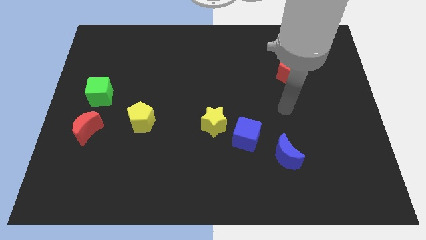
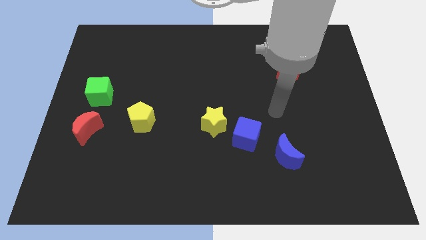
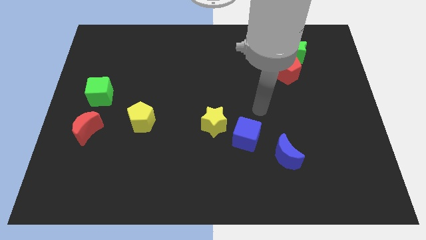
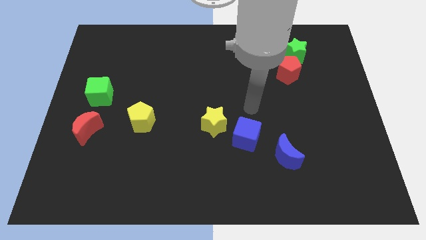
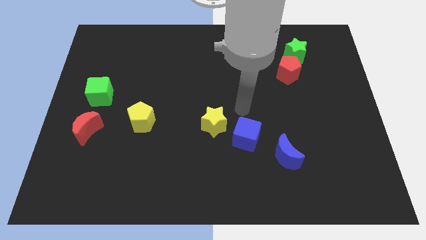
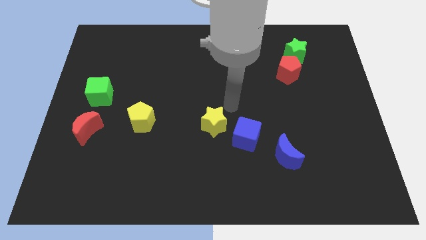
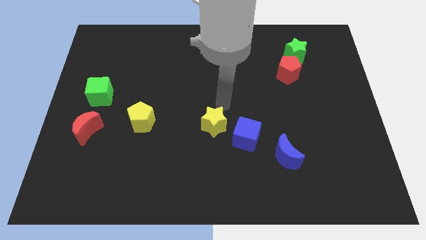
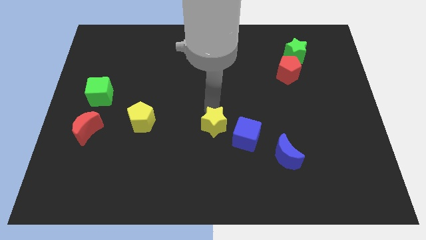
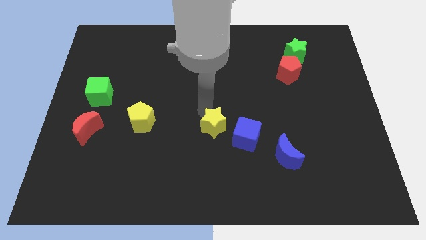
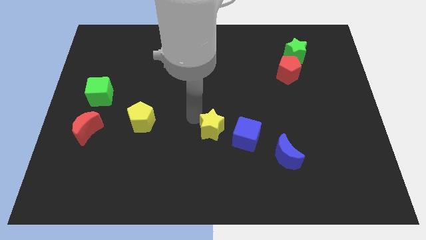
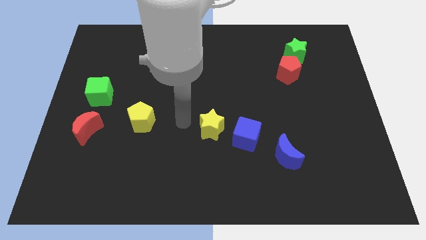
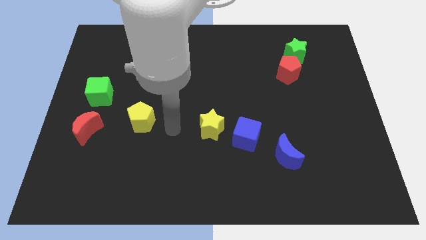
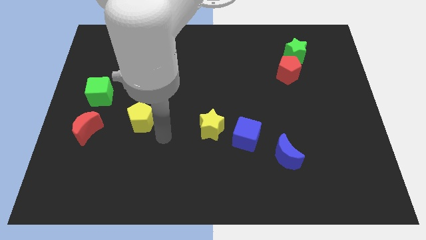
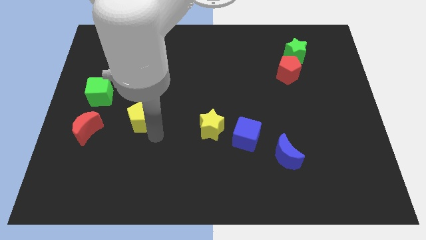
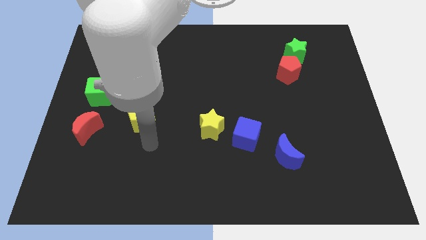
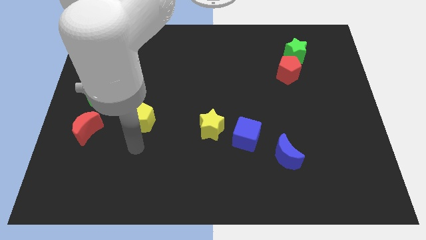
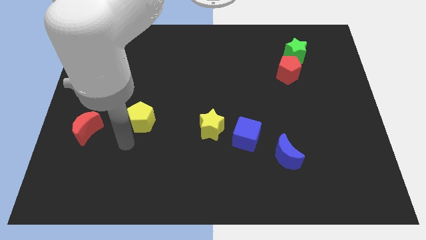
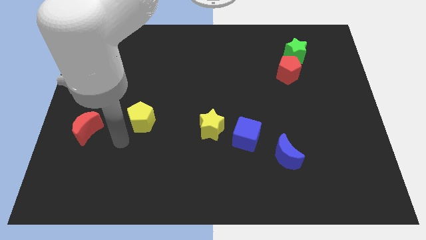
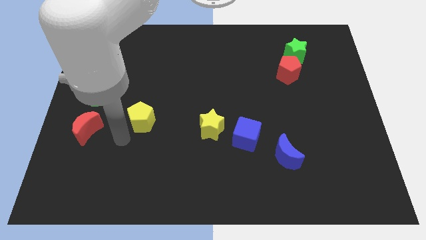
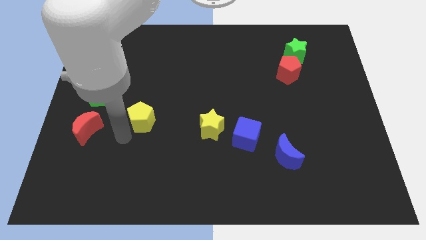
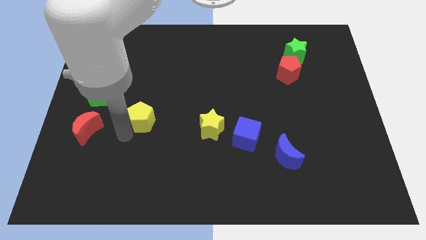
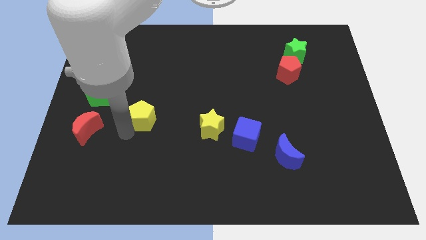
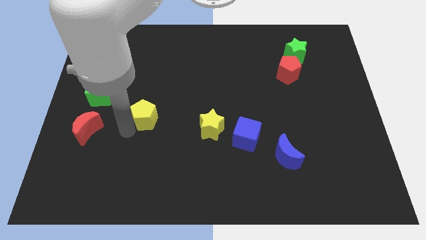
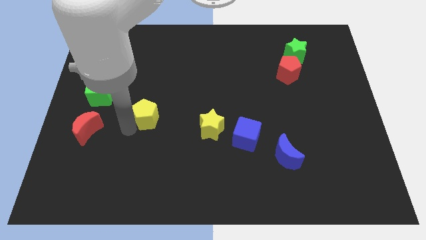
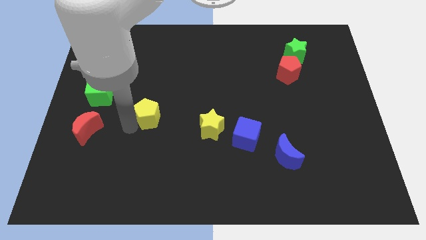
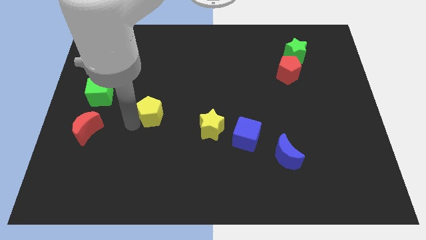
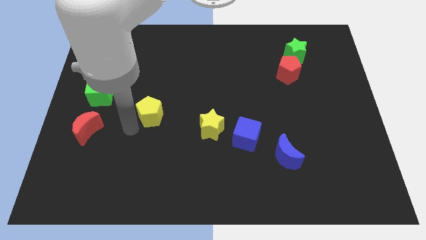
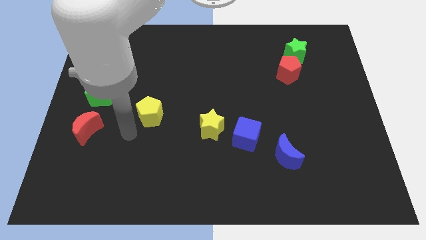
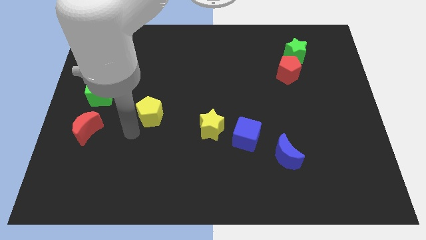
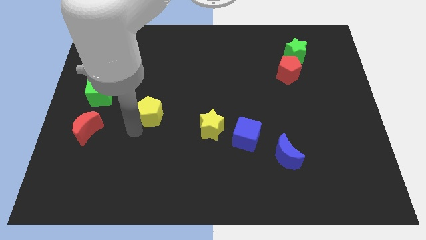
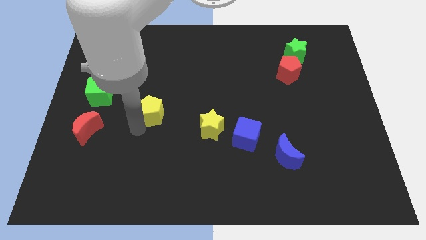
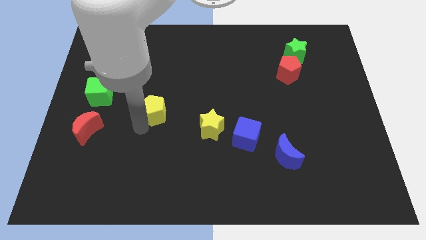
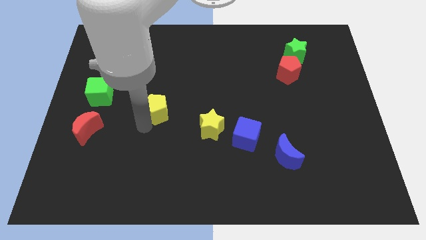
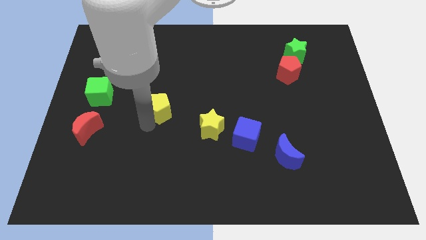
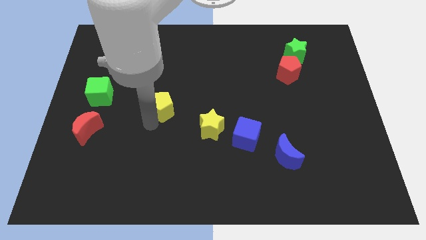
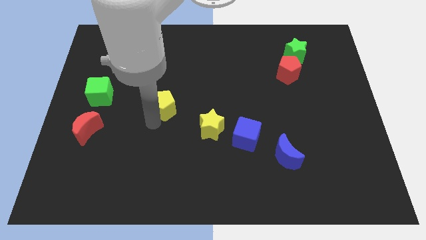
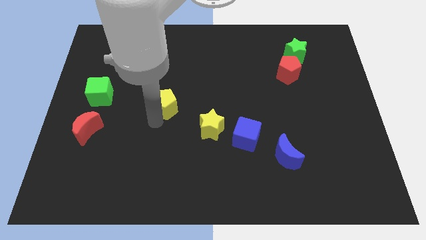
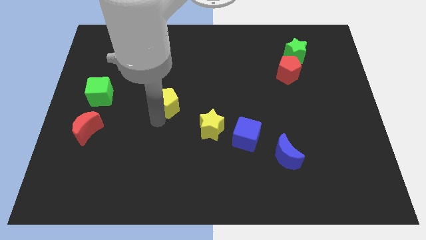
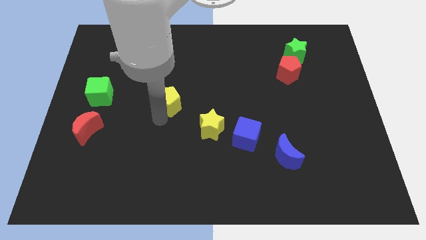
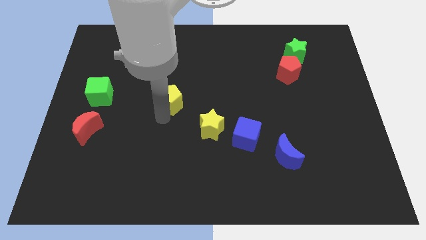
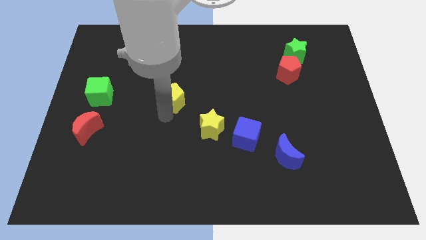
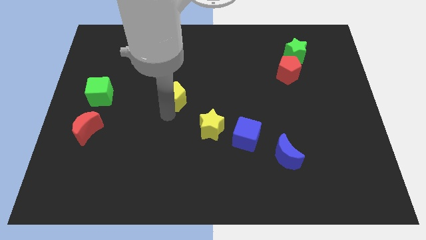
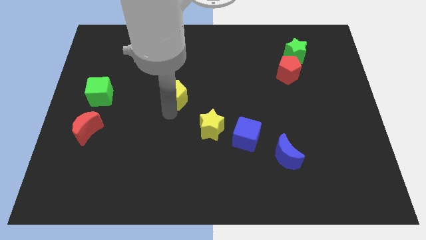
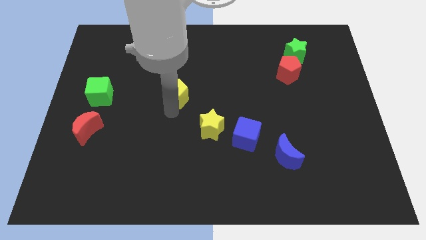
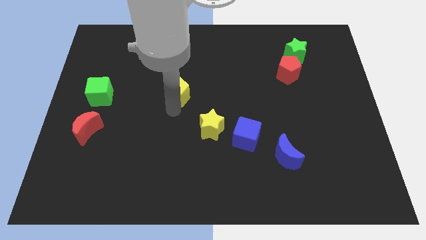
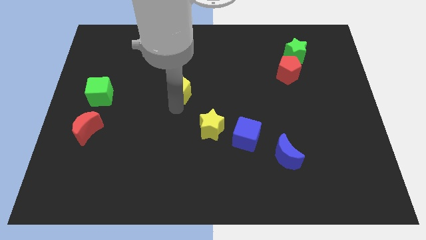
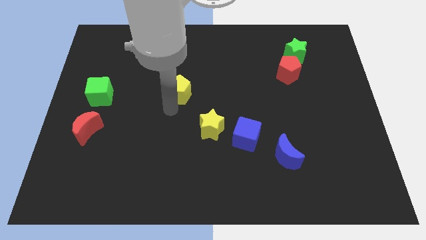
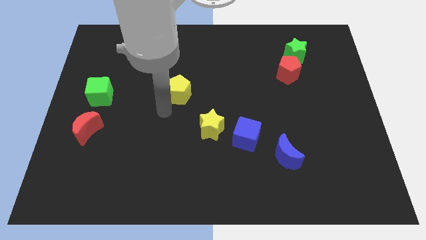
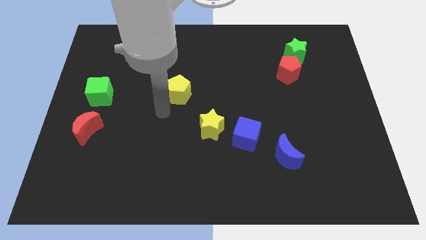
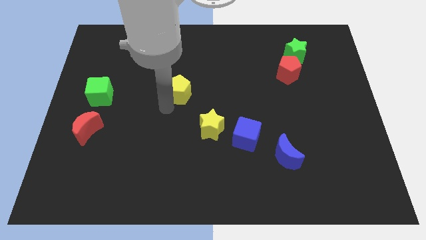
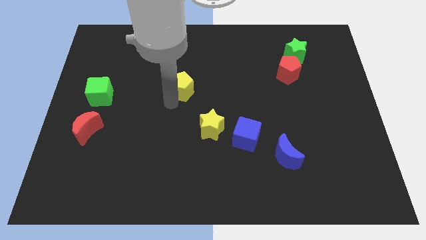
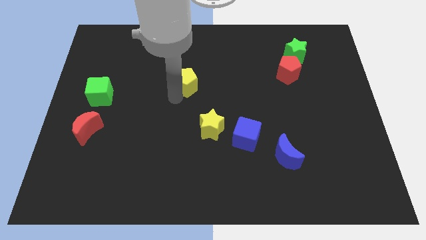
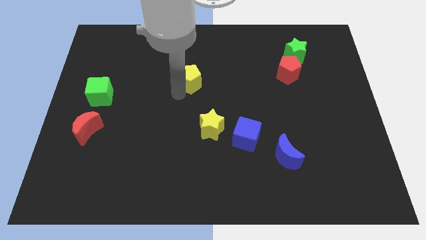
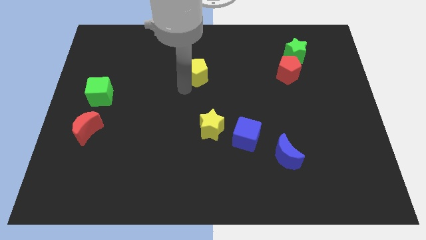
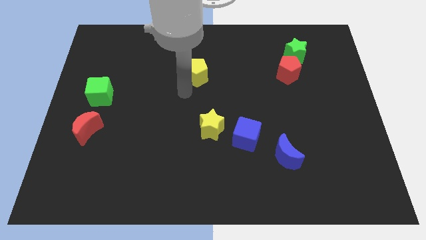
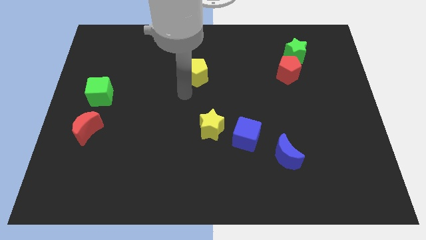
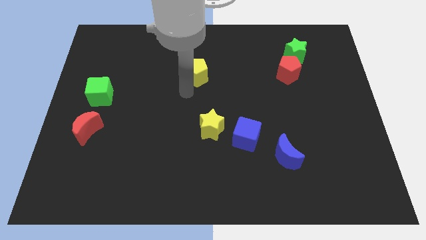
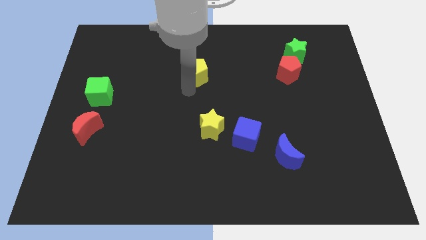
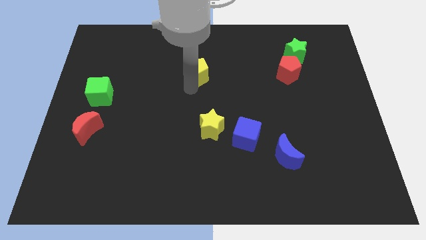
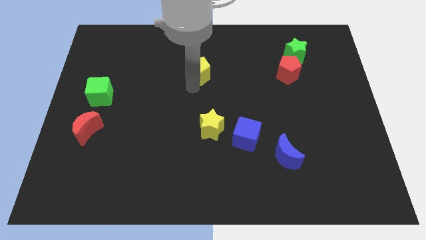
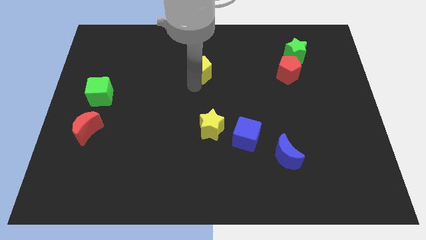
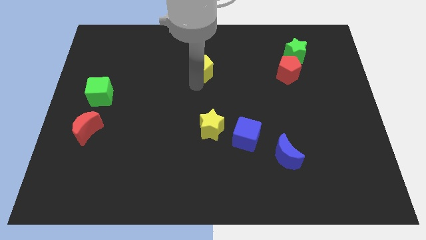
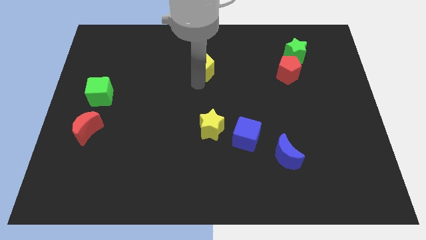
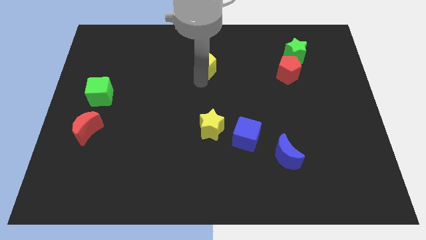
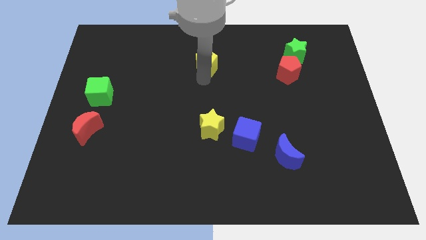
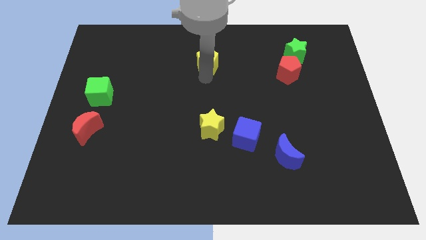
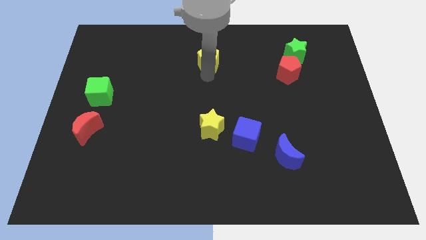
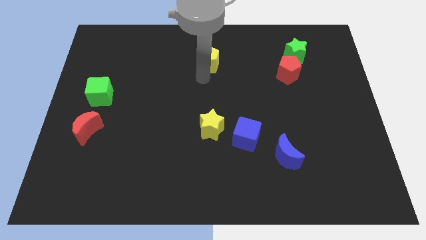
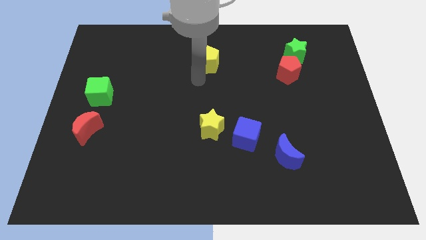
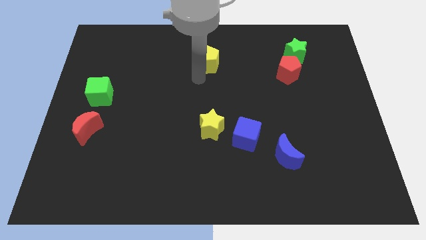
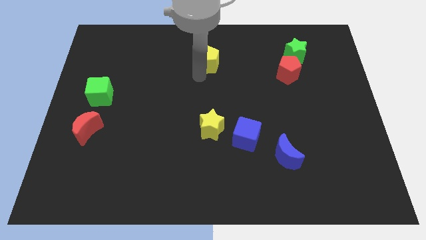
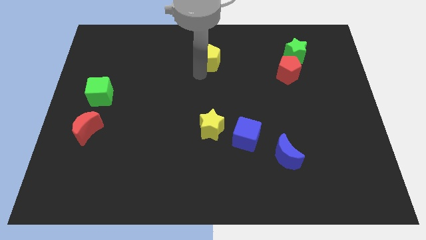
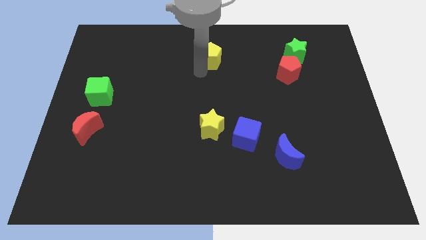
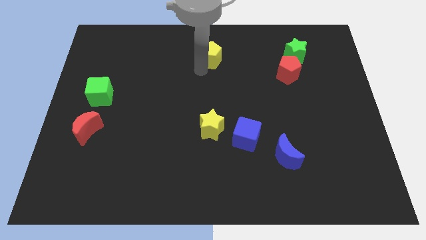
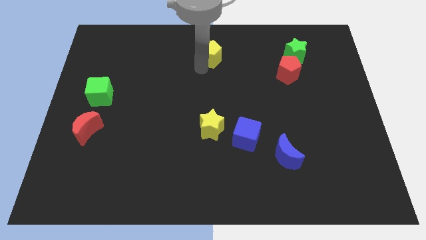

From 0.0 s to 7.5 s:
push the yellow pentagon to the top side

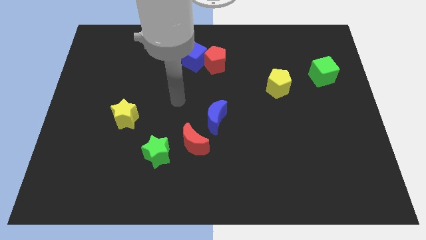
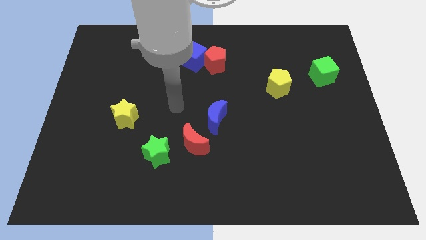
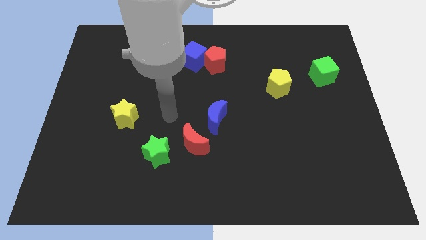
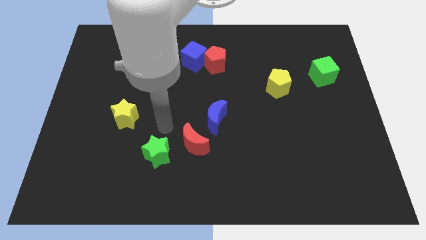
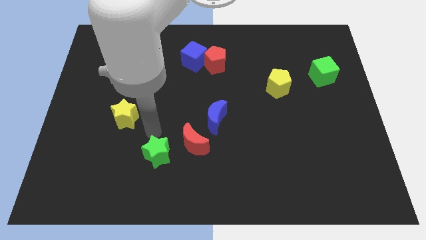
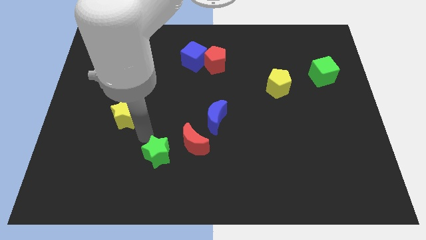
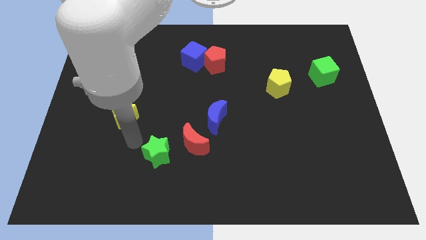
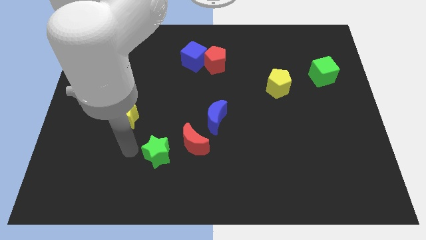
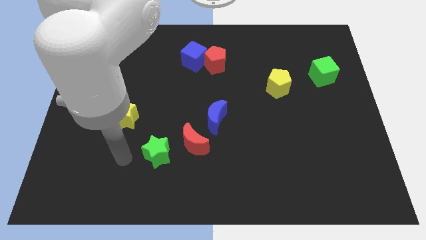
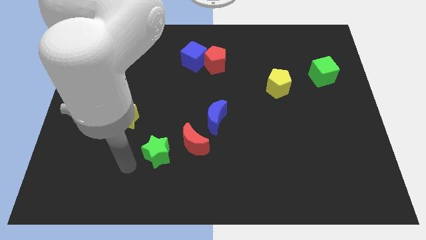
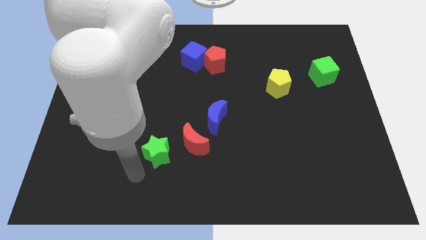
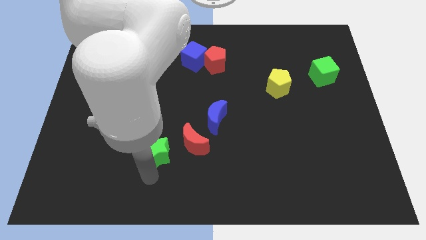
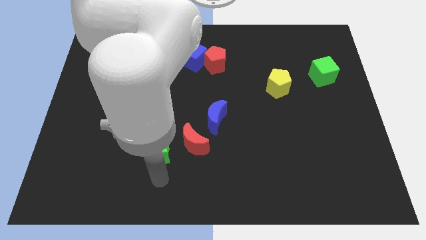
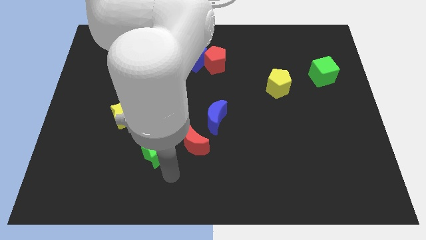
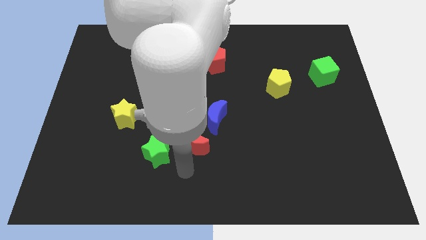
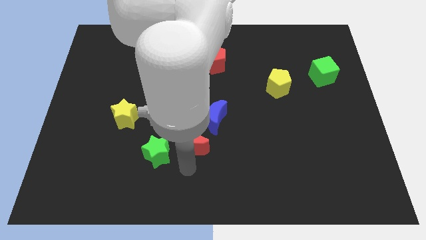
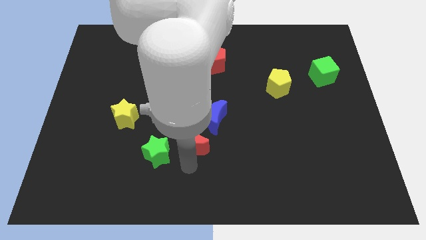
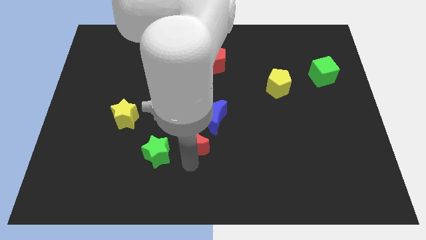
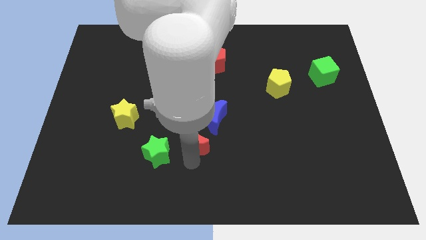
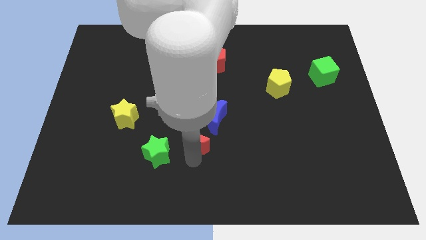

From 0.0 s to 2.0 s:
slide the red moon to the middle
